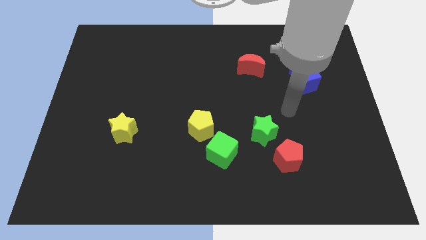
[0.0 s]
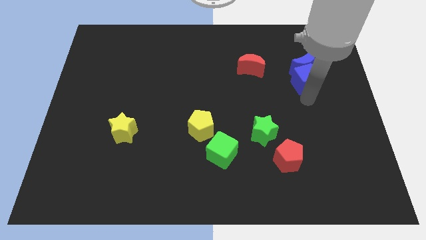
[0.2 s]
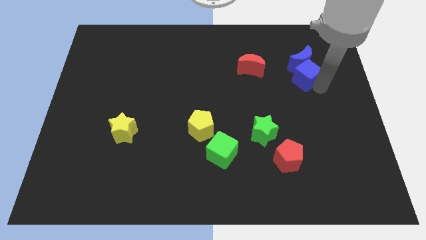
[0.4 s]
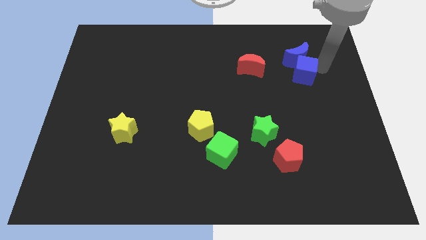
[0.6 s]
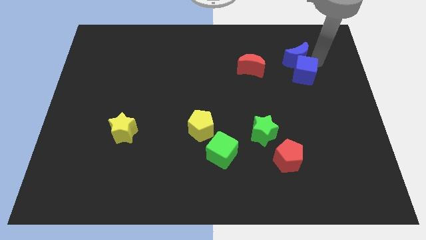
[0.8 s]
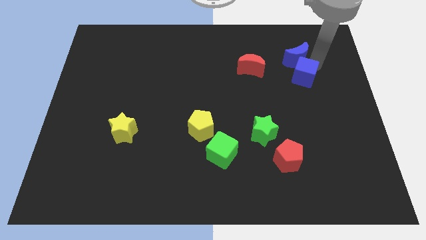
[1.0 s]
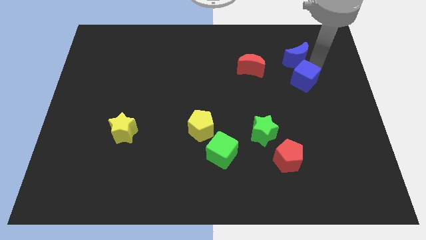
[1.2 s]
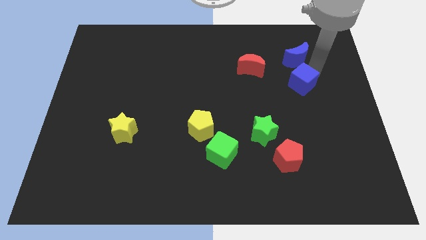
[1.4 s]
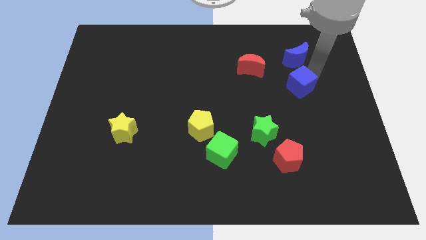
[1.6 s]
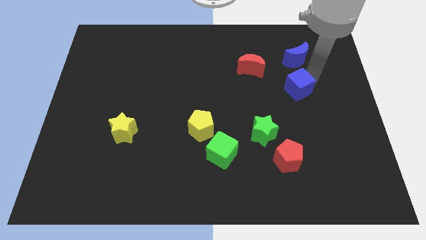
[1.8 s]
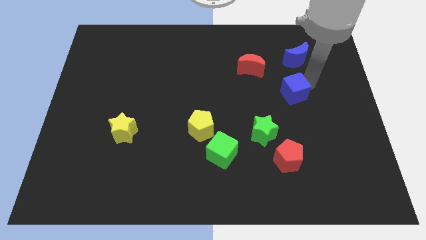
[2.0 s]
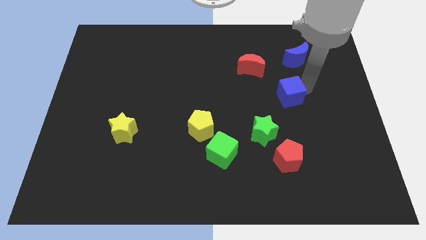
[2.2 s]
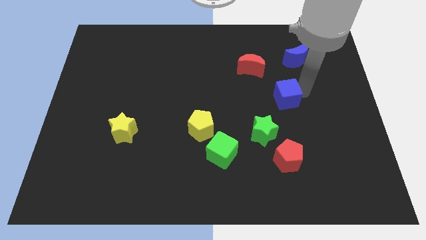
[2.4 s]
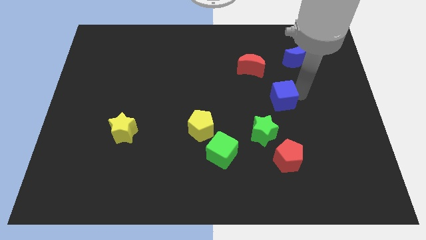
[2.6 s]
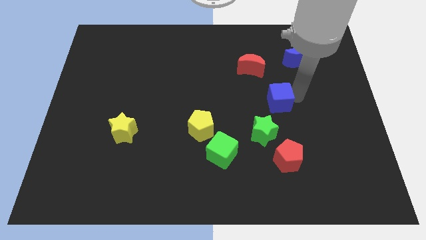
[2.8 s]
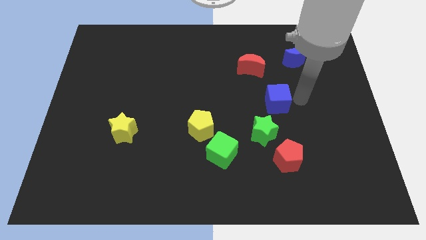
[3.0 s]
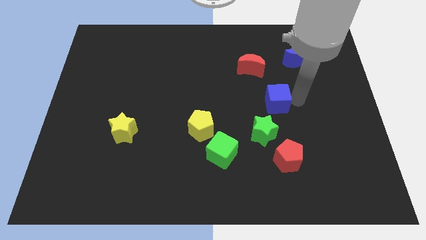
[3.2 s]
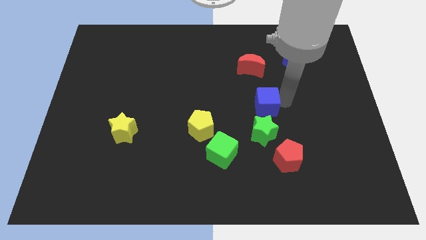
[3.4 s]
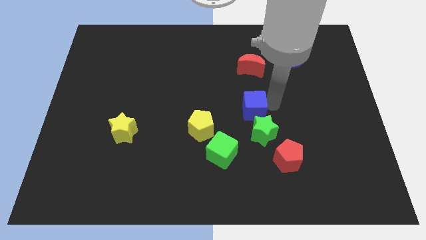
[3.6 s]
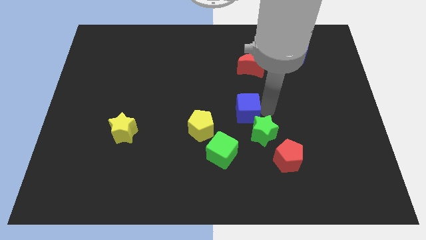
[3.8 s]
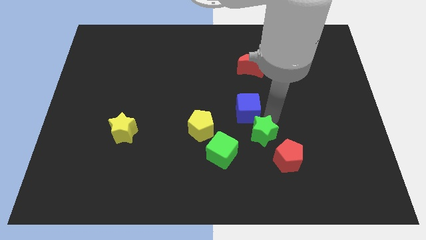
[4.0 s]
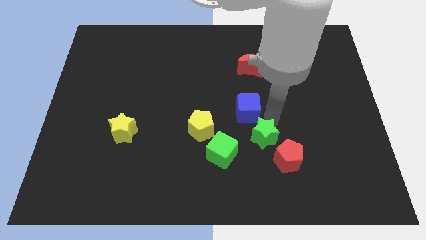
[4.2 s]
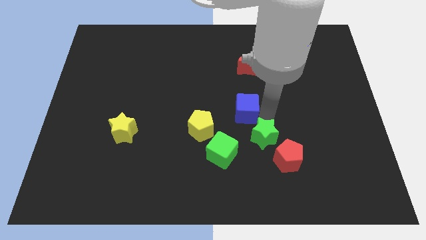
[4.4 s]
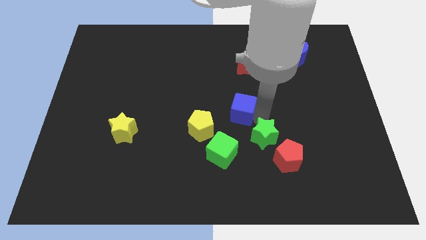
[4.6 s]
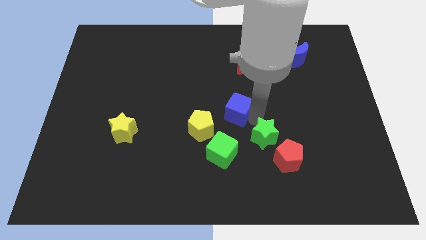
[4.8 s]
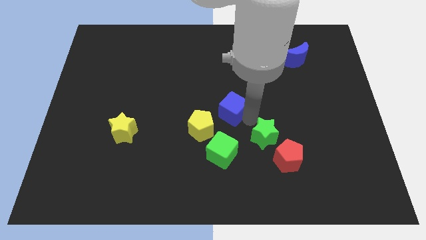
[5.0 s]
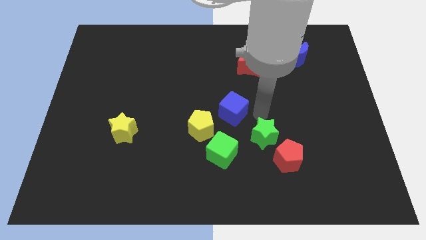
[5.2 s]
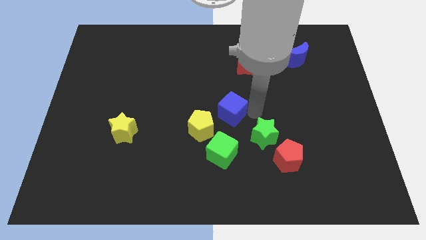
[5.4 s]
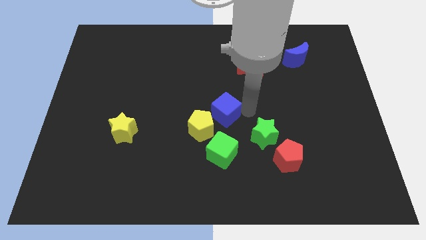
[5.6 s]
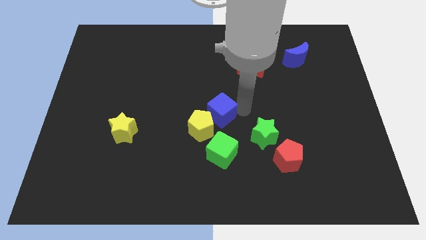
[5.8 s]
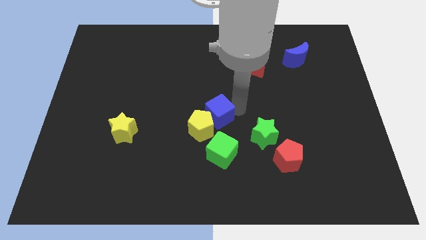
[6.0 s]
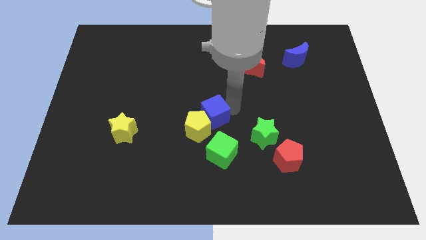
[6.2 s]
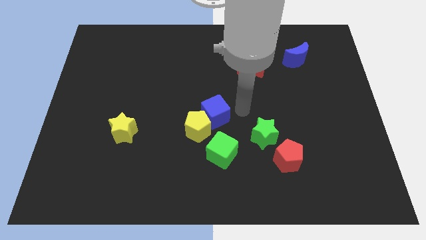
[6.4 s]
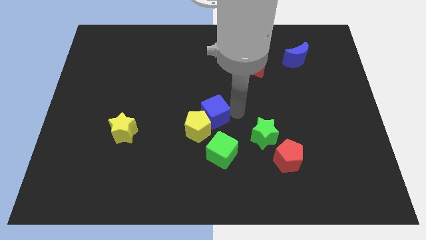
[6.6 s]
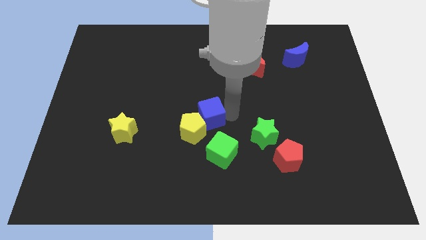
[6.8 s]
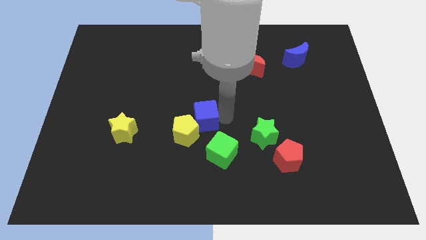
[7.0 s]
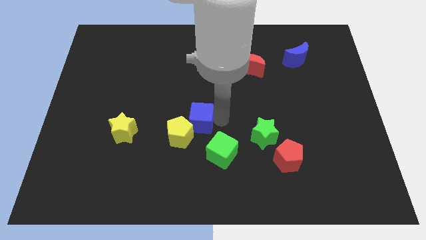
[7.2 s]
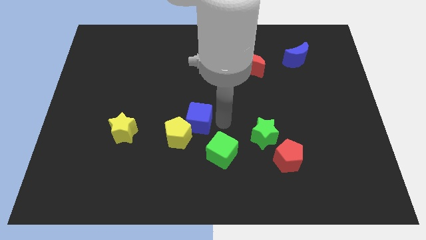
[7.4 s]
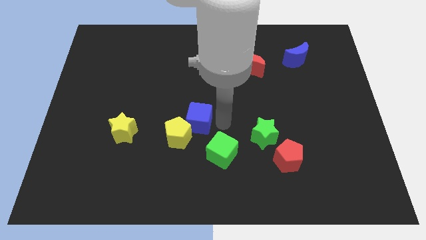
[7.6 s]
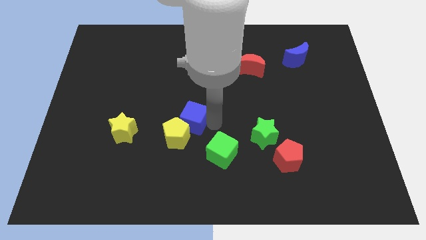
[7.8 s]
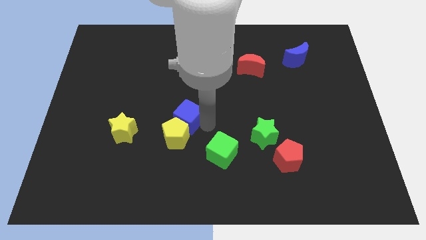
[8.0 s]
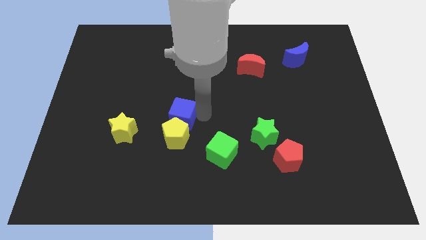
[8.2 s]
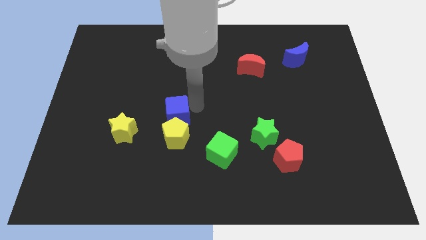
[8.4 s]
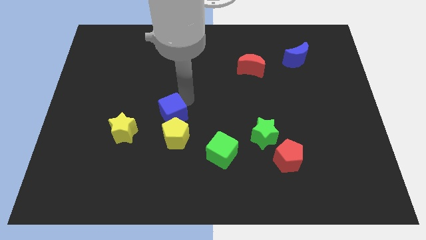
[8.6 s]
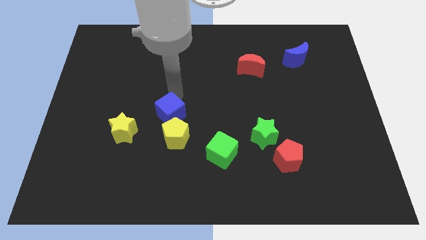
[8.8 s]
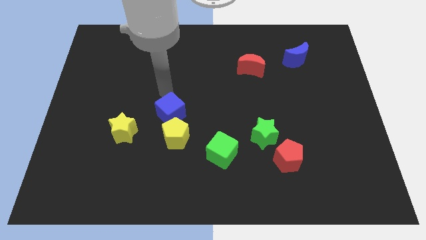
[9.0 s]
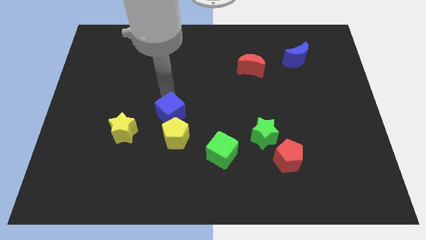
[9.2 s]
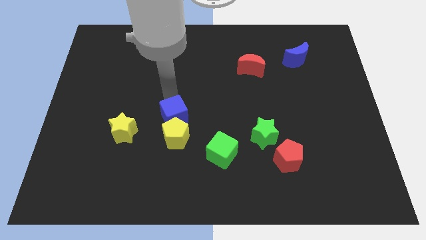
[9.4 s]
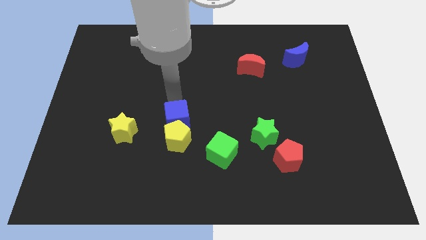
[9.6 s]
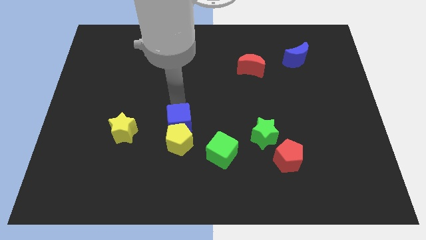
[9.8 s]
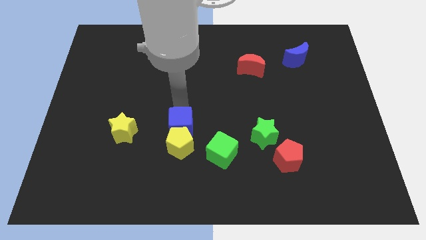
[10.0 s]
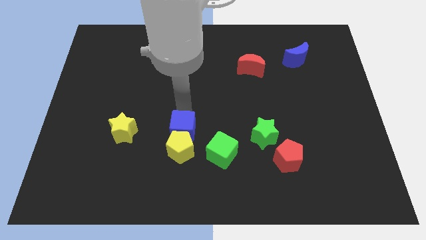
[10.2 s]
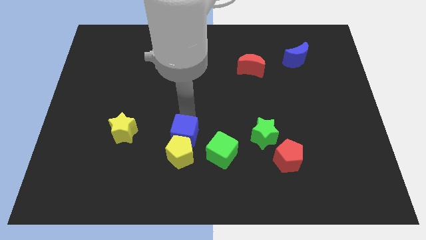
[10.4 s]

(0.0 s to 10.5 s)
put the blue cube just left of the green cube
